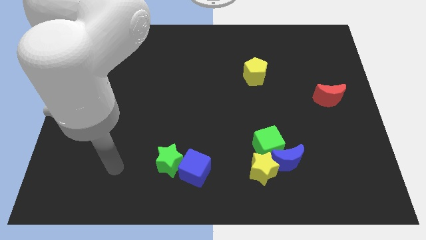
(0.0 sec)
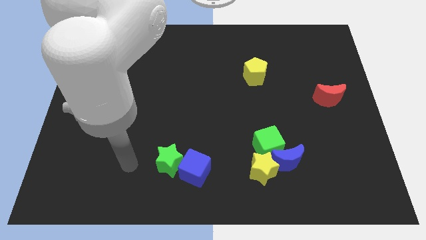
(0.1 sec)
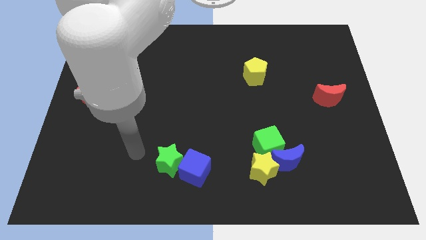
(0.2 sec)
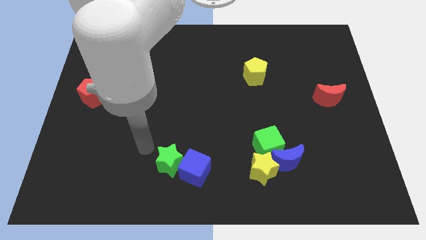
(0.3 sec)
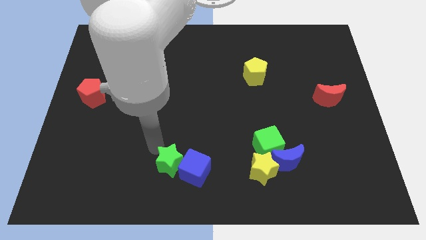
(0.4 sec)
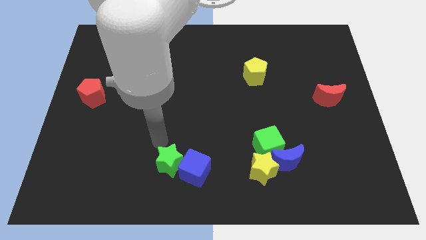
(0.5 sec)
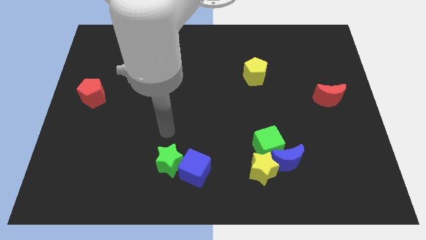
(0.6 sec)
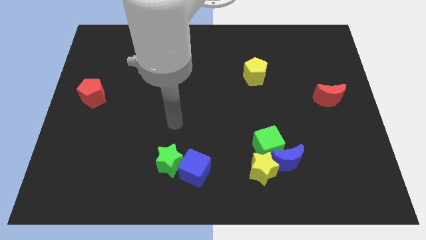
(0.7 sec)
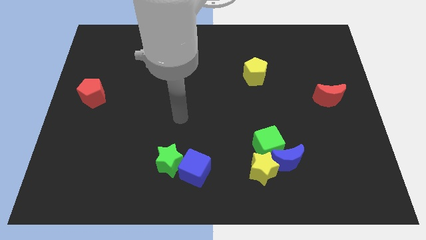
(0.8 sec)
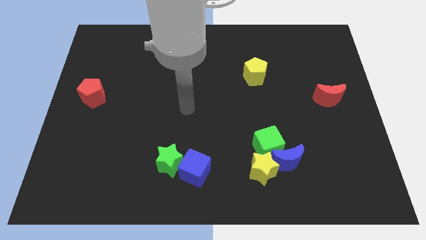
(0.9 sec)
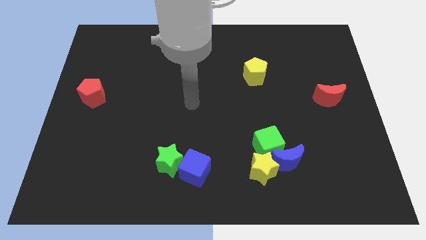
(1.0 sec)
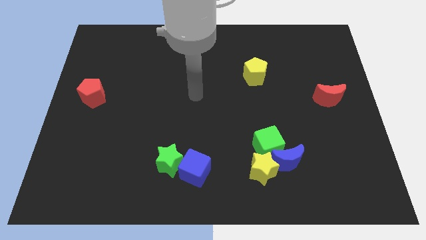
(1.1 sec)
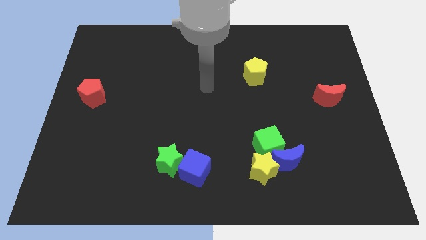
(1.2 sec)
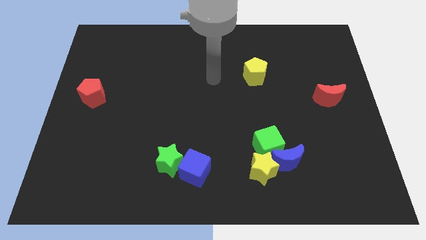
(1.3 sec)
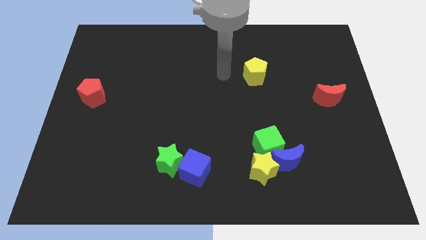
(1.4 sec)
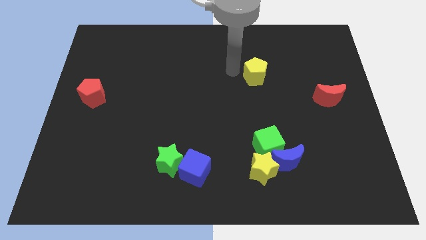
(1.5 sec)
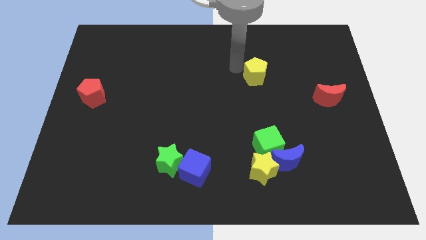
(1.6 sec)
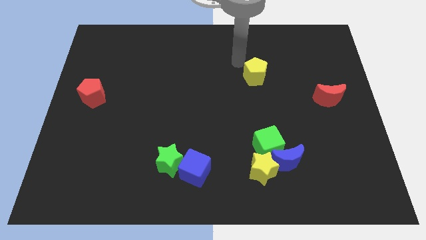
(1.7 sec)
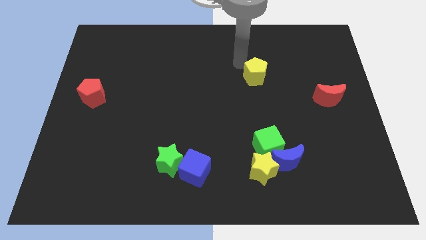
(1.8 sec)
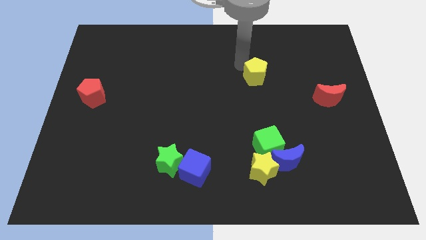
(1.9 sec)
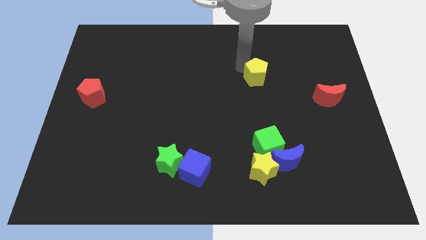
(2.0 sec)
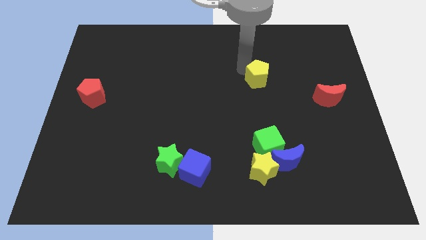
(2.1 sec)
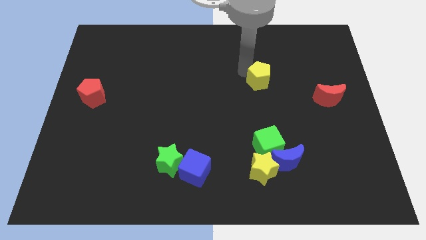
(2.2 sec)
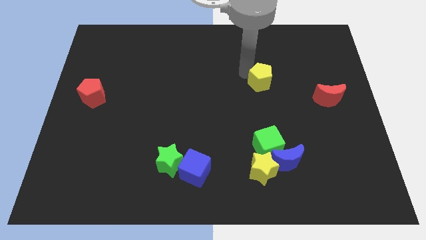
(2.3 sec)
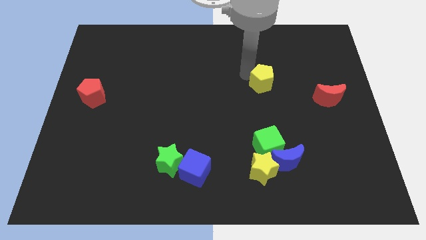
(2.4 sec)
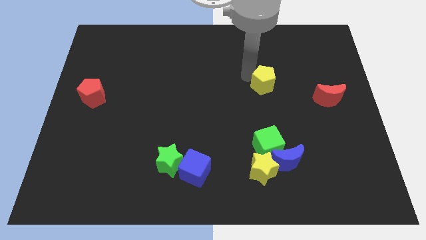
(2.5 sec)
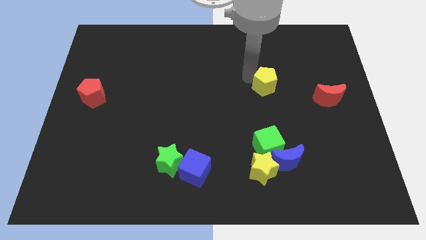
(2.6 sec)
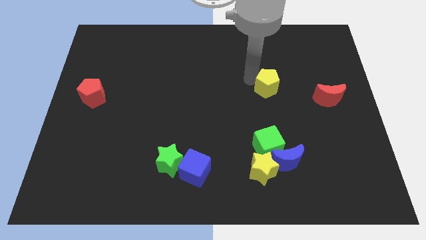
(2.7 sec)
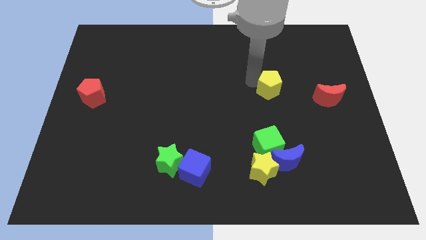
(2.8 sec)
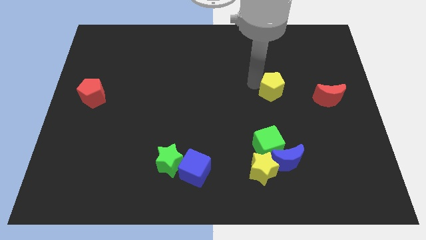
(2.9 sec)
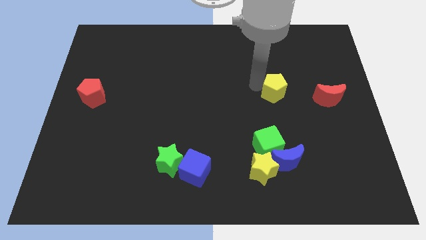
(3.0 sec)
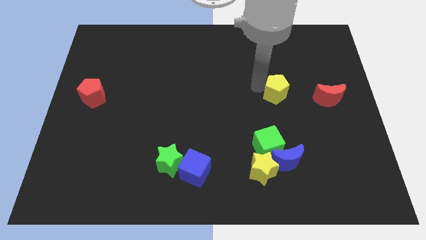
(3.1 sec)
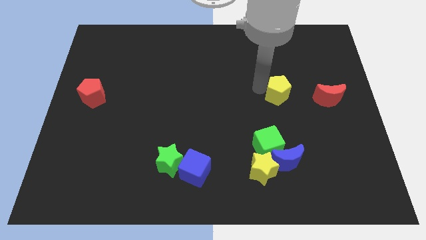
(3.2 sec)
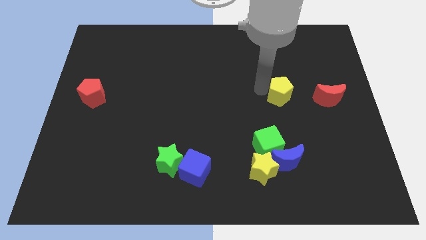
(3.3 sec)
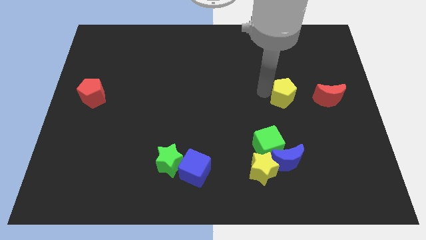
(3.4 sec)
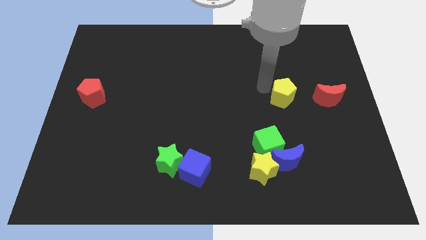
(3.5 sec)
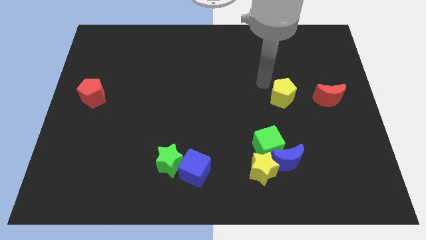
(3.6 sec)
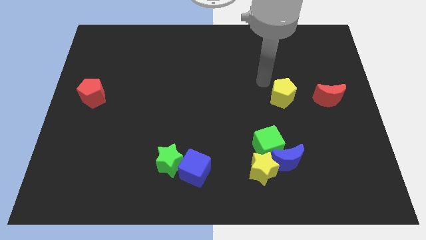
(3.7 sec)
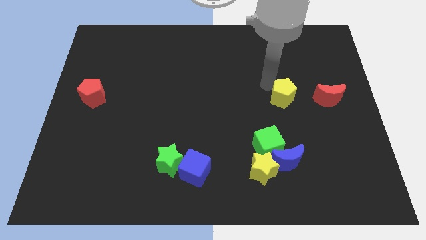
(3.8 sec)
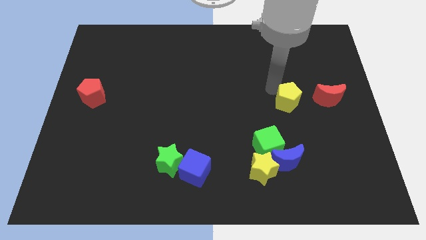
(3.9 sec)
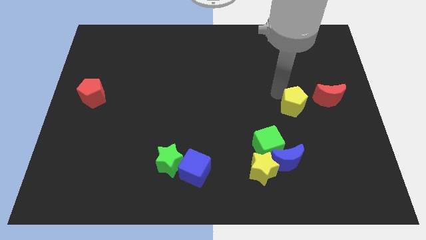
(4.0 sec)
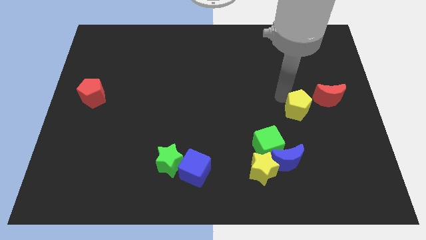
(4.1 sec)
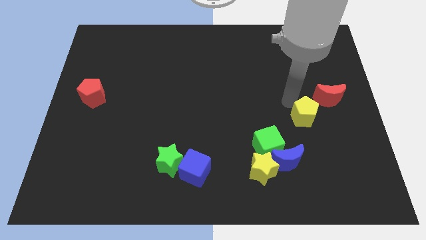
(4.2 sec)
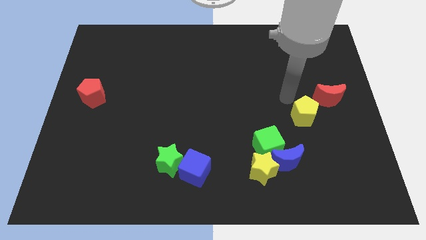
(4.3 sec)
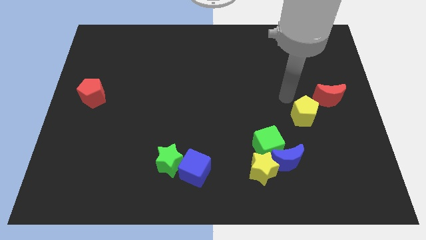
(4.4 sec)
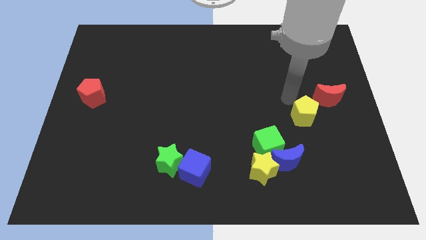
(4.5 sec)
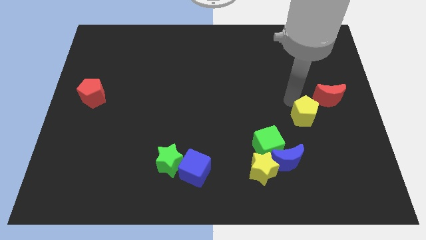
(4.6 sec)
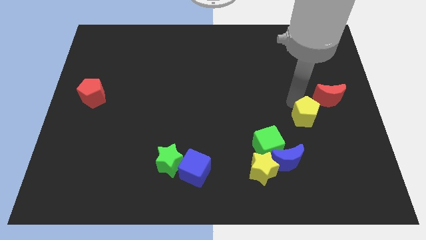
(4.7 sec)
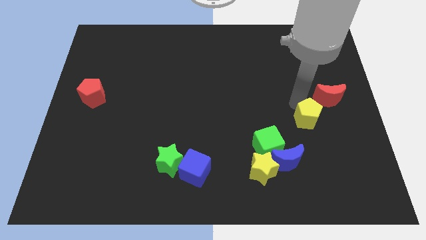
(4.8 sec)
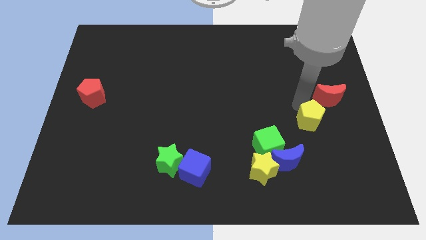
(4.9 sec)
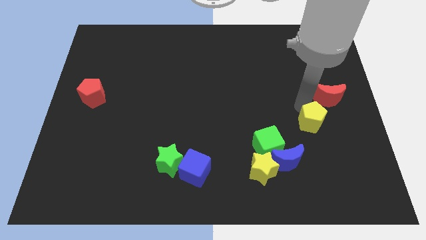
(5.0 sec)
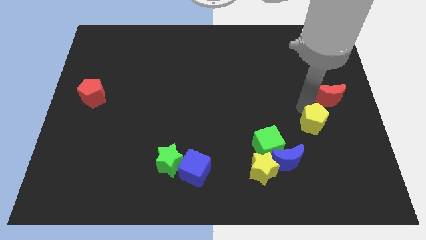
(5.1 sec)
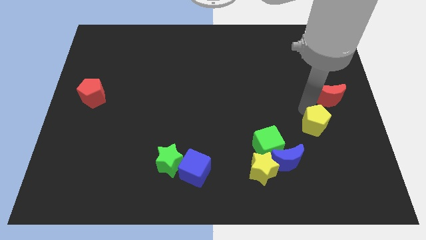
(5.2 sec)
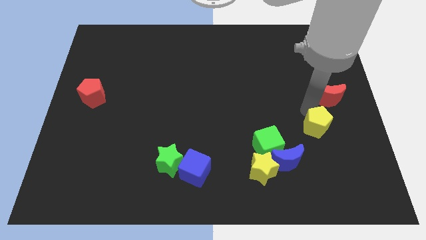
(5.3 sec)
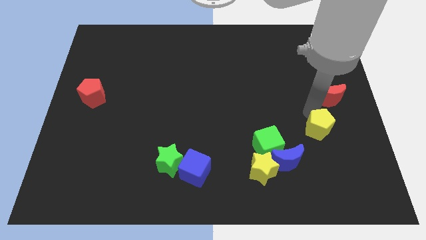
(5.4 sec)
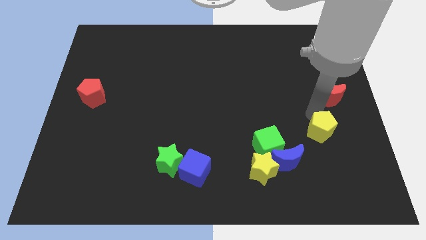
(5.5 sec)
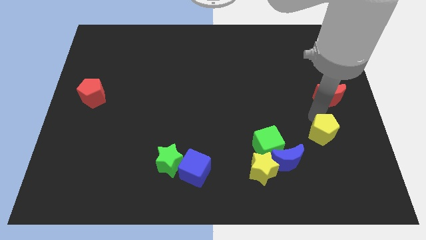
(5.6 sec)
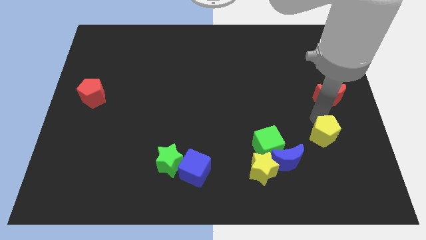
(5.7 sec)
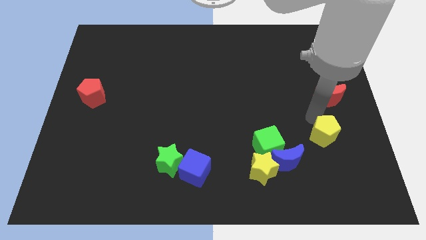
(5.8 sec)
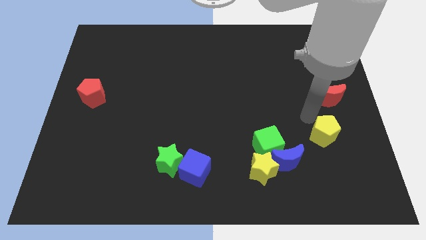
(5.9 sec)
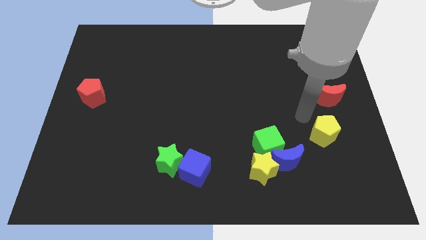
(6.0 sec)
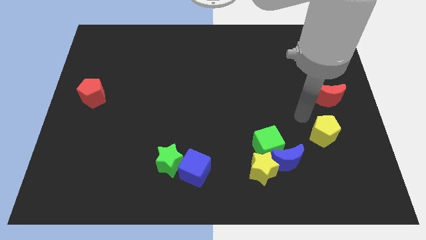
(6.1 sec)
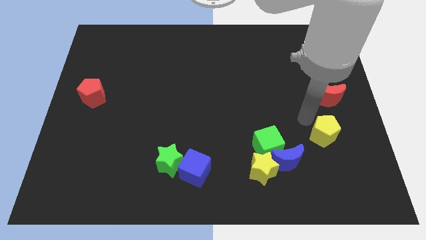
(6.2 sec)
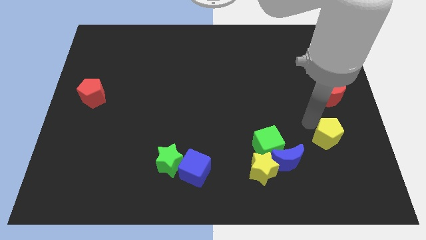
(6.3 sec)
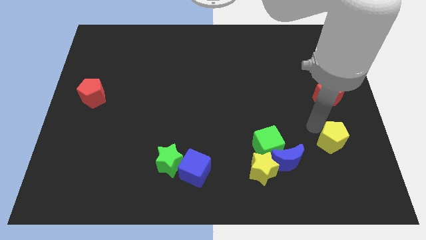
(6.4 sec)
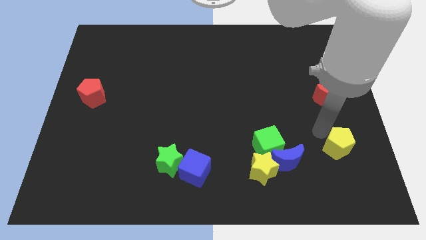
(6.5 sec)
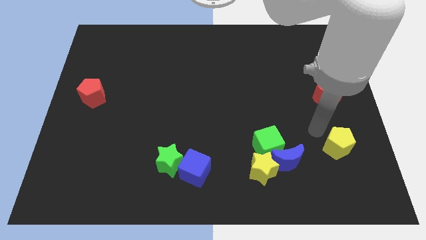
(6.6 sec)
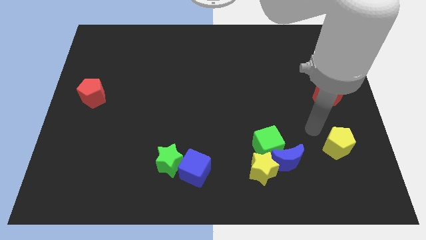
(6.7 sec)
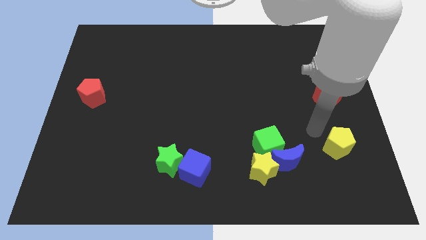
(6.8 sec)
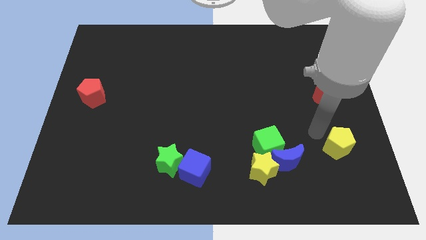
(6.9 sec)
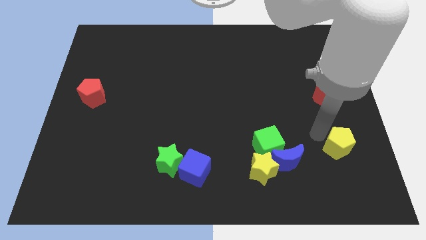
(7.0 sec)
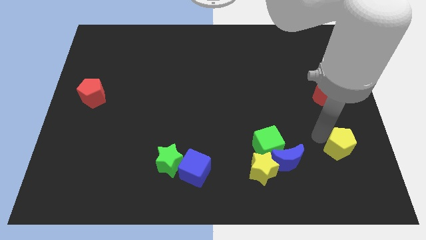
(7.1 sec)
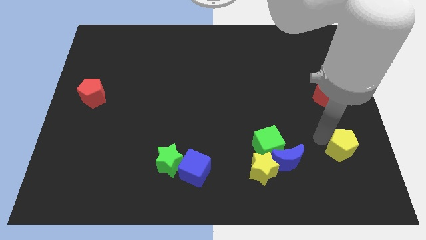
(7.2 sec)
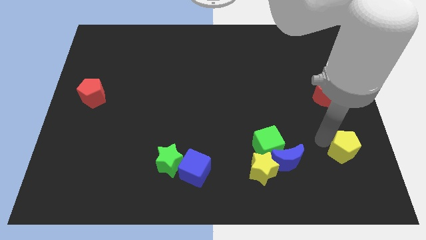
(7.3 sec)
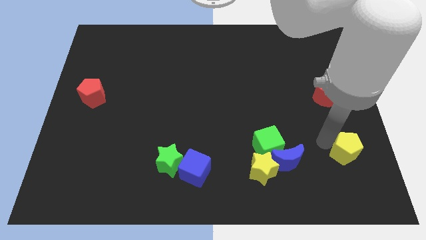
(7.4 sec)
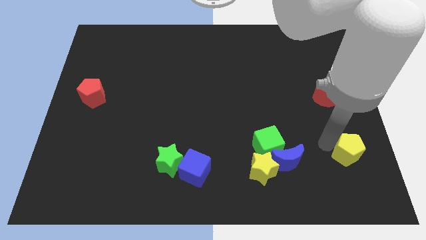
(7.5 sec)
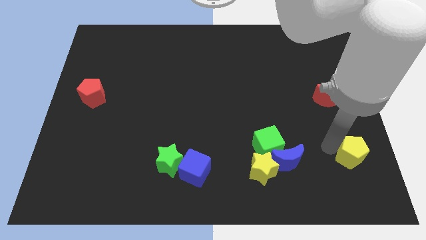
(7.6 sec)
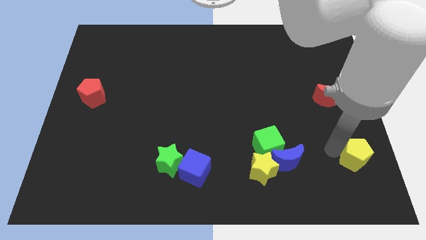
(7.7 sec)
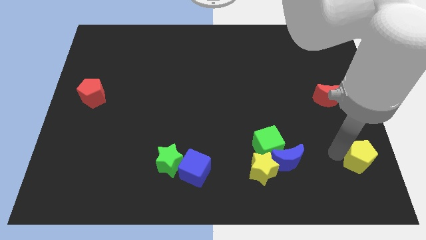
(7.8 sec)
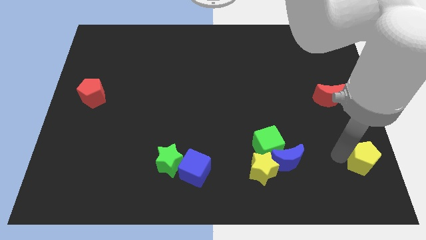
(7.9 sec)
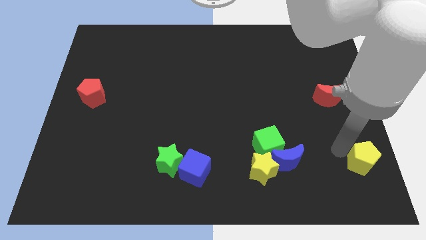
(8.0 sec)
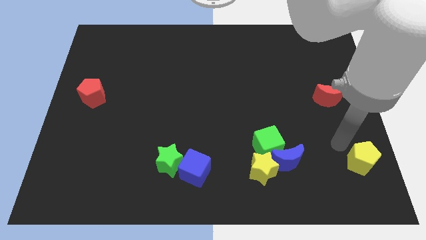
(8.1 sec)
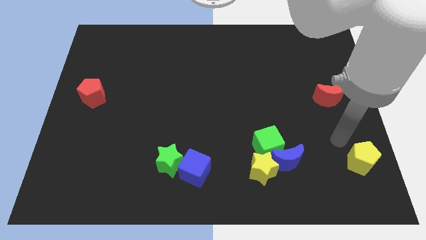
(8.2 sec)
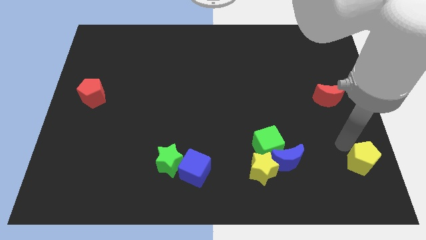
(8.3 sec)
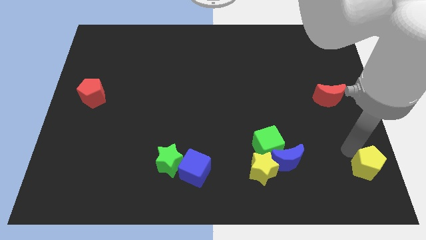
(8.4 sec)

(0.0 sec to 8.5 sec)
push the yellow pentagon to the bottom right
